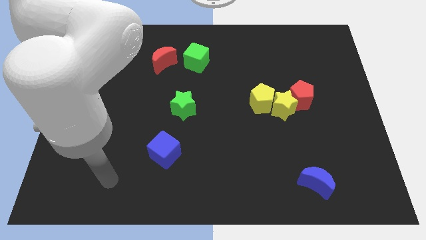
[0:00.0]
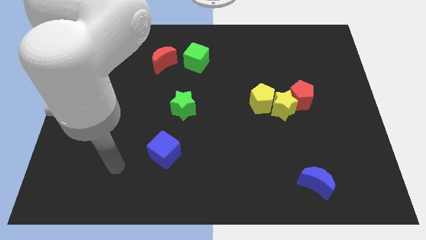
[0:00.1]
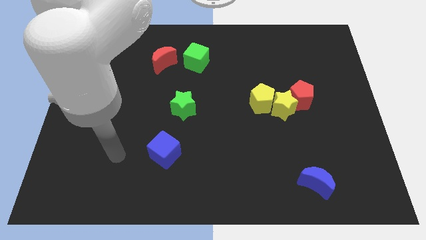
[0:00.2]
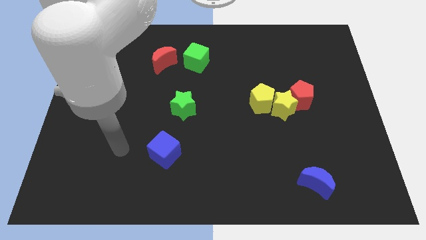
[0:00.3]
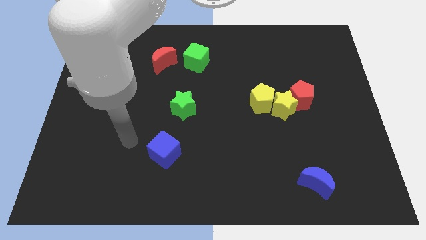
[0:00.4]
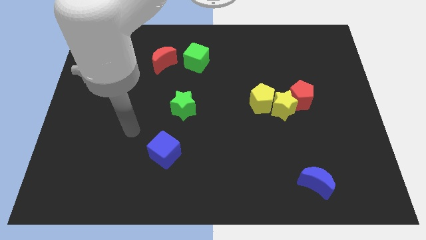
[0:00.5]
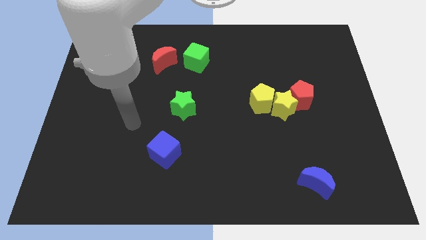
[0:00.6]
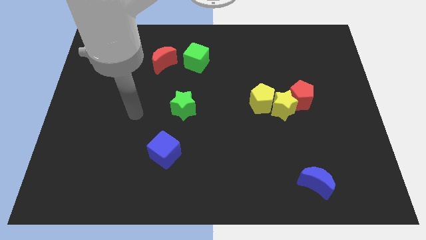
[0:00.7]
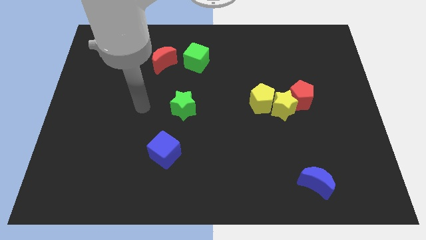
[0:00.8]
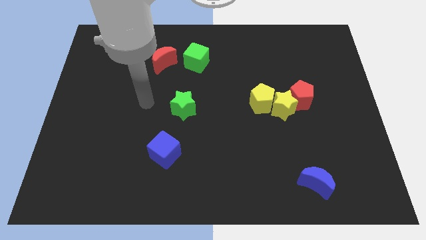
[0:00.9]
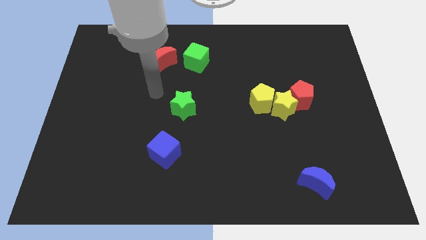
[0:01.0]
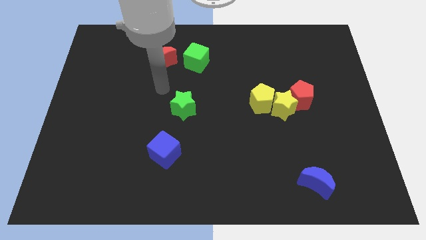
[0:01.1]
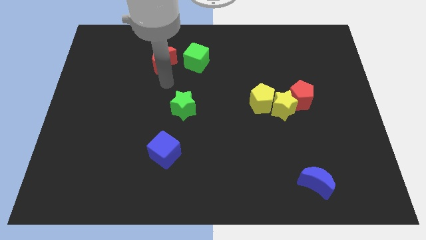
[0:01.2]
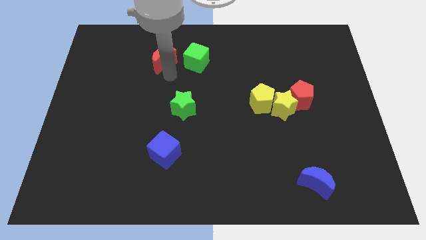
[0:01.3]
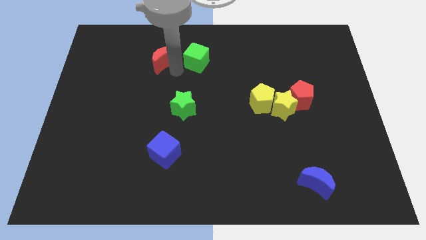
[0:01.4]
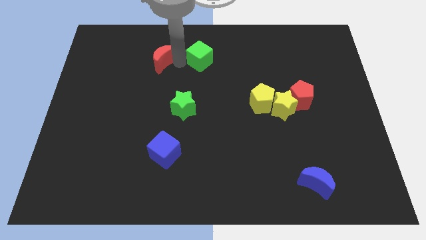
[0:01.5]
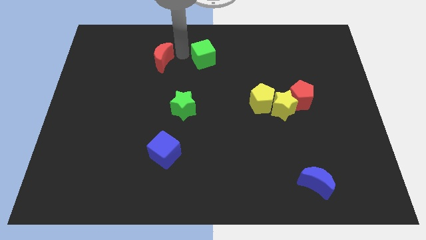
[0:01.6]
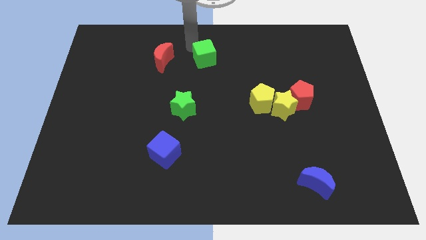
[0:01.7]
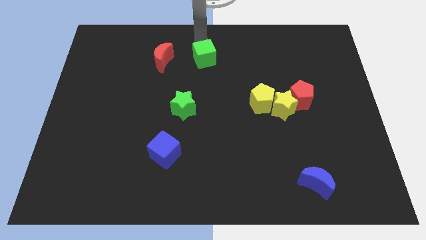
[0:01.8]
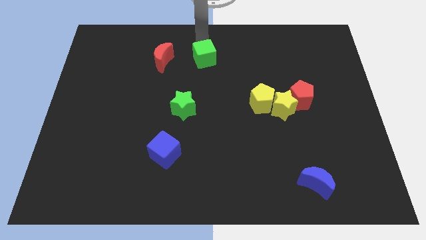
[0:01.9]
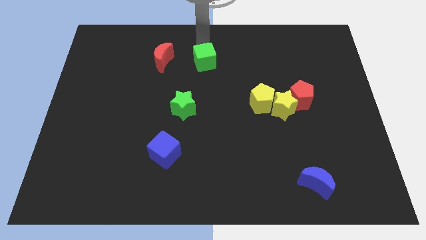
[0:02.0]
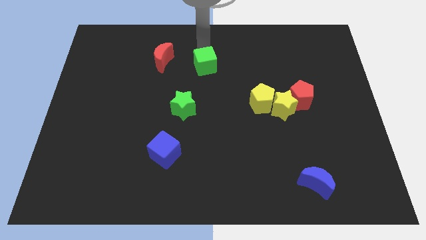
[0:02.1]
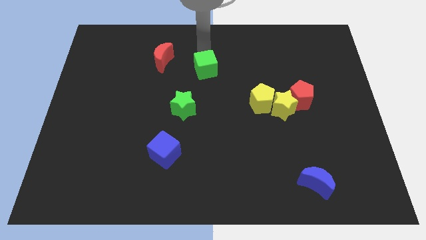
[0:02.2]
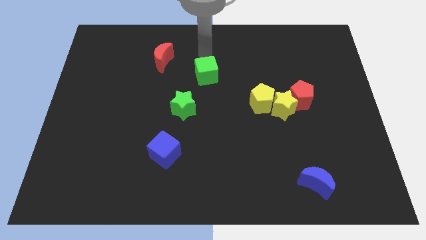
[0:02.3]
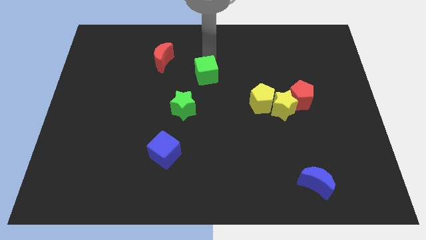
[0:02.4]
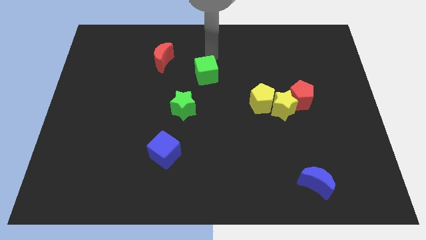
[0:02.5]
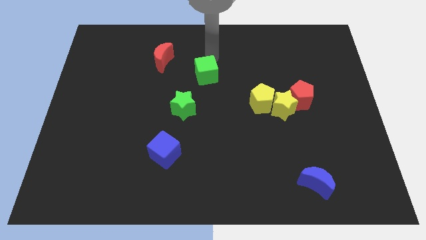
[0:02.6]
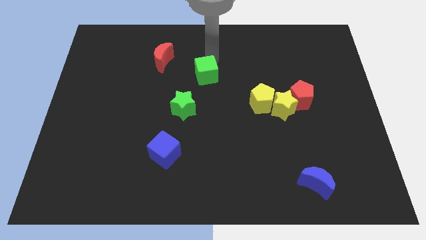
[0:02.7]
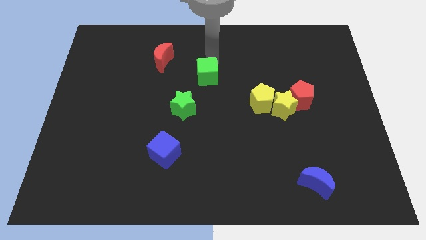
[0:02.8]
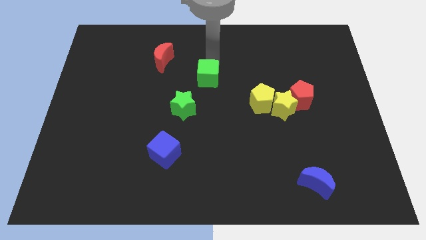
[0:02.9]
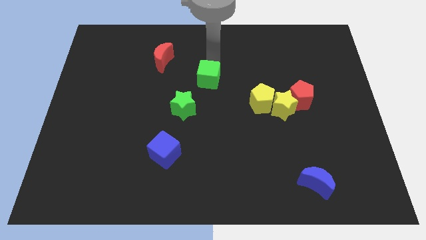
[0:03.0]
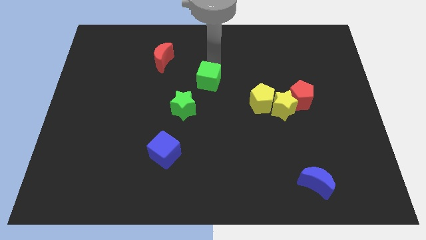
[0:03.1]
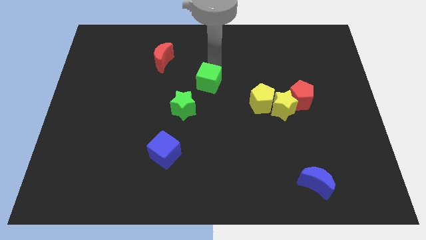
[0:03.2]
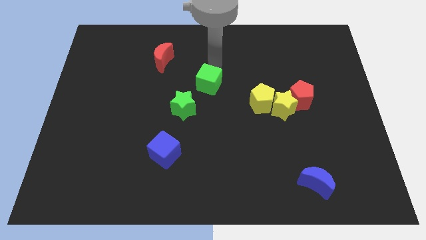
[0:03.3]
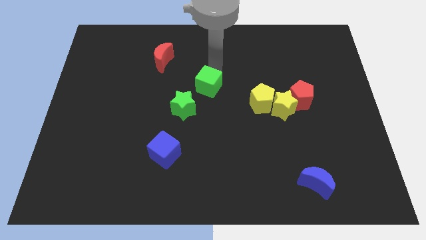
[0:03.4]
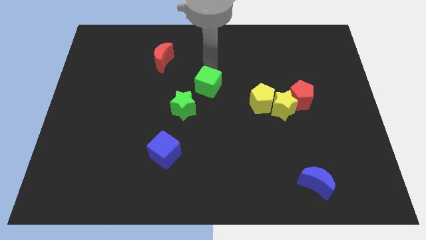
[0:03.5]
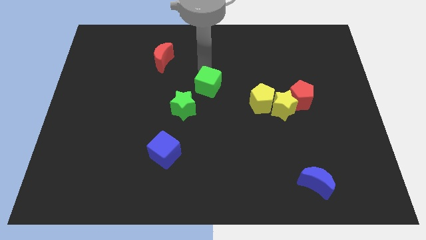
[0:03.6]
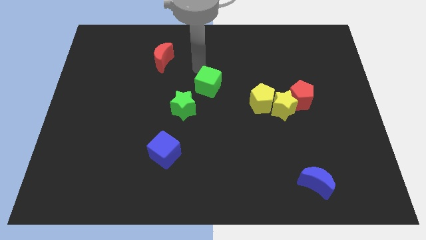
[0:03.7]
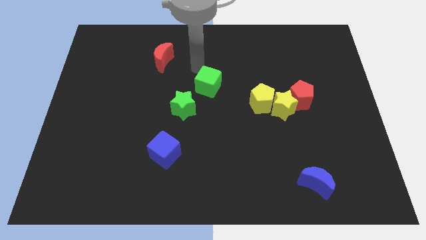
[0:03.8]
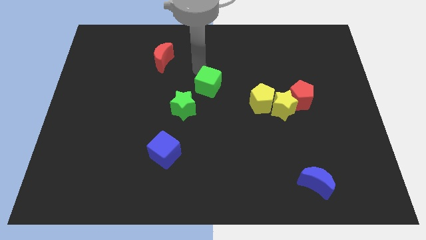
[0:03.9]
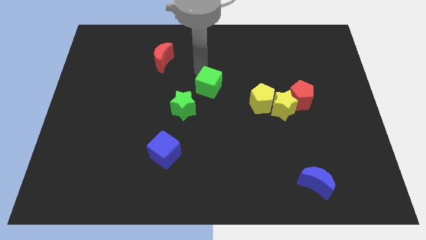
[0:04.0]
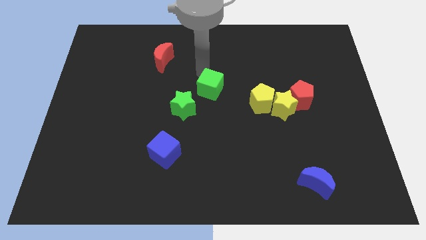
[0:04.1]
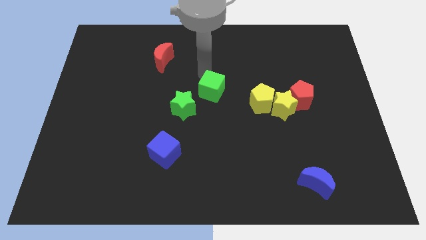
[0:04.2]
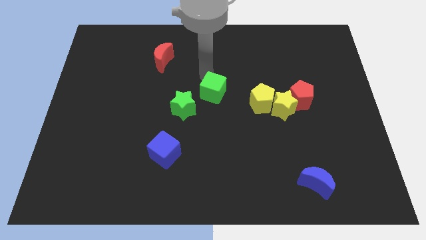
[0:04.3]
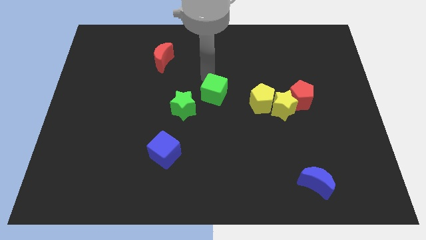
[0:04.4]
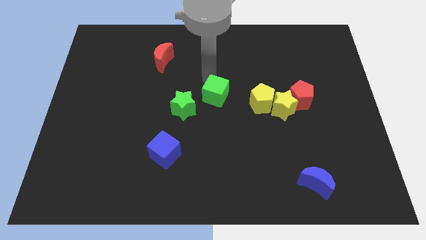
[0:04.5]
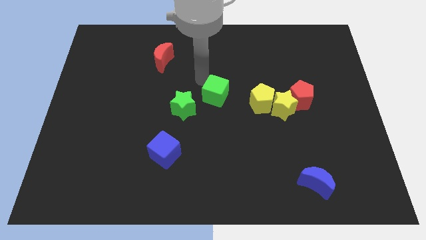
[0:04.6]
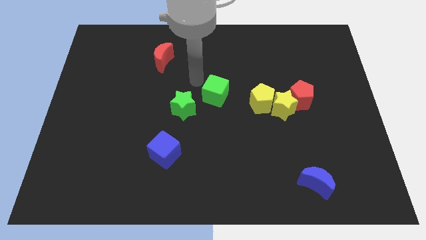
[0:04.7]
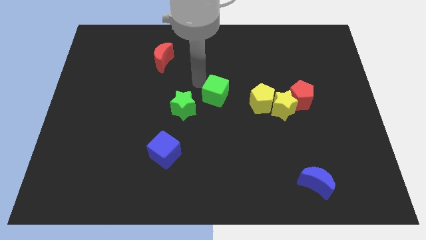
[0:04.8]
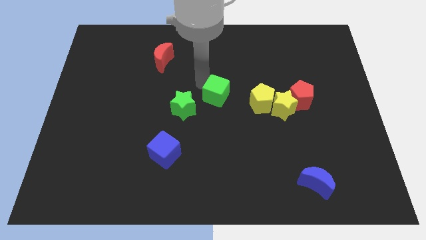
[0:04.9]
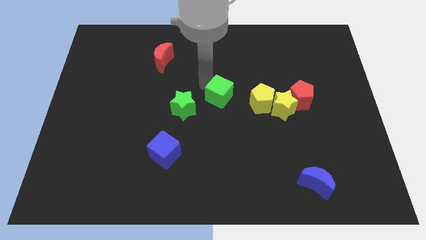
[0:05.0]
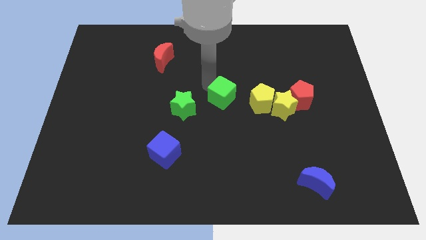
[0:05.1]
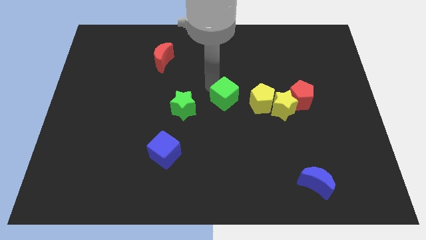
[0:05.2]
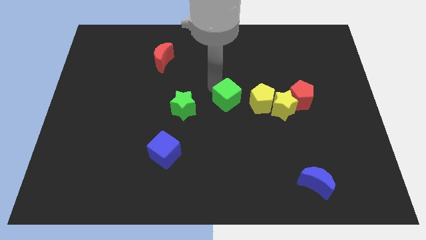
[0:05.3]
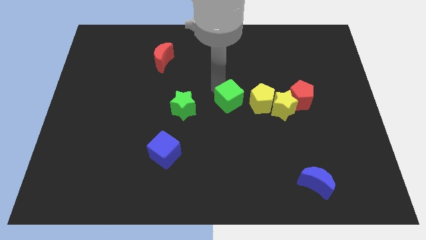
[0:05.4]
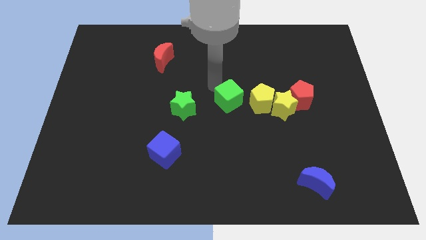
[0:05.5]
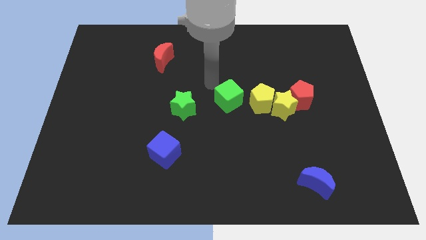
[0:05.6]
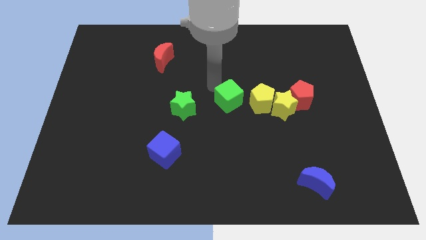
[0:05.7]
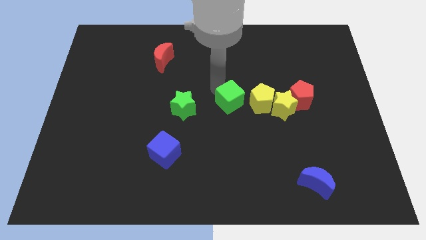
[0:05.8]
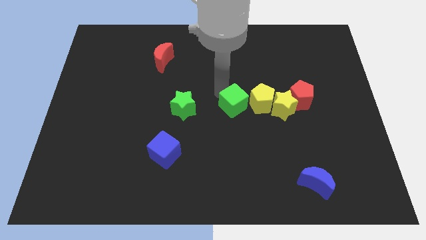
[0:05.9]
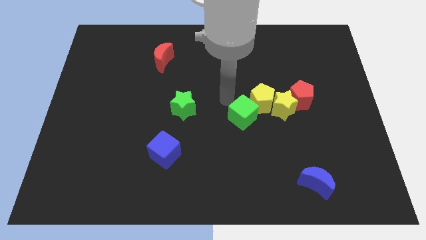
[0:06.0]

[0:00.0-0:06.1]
move the green cube down and right diagonally

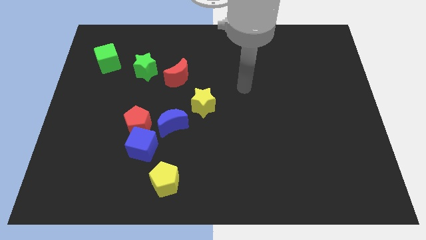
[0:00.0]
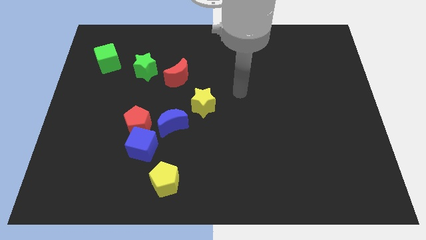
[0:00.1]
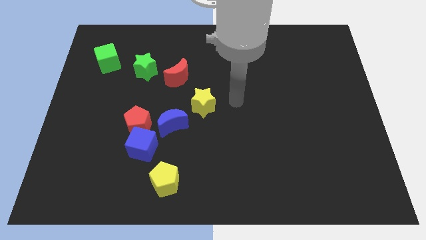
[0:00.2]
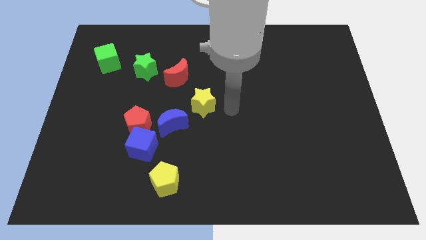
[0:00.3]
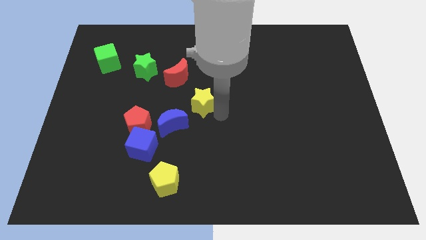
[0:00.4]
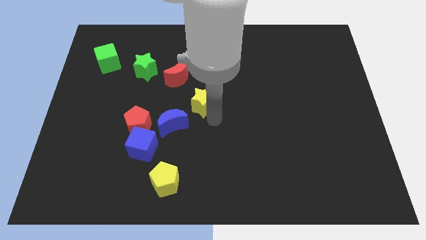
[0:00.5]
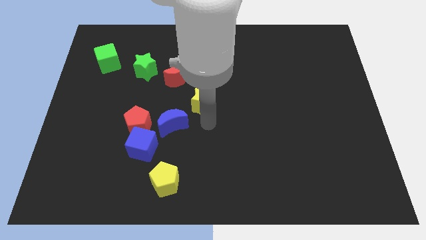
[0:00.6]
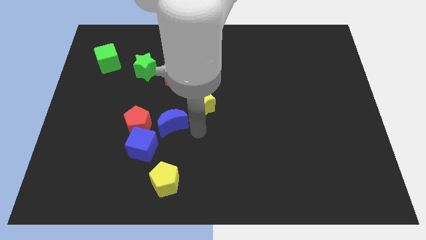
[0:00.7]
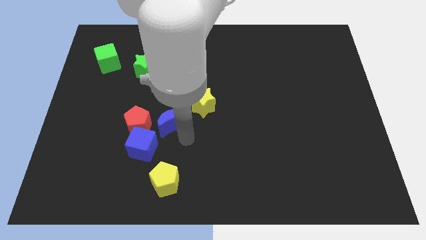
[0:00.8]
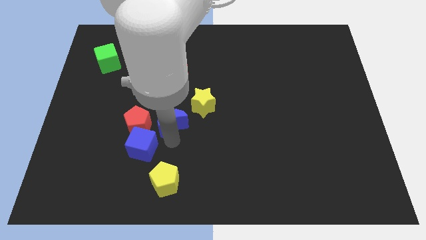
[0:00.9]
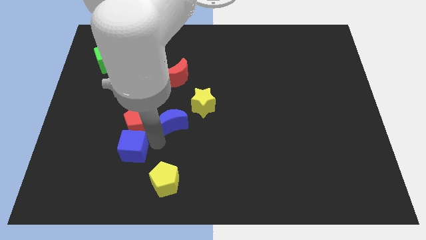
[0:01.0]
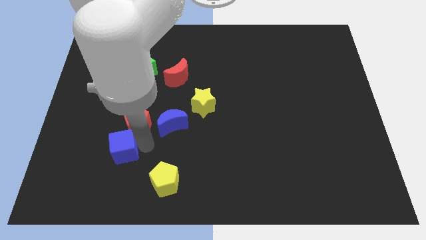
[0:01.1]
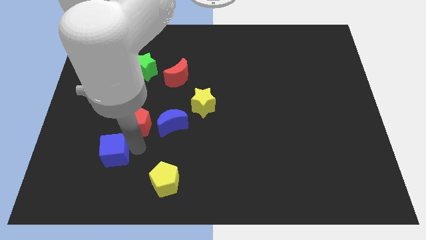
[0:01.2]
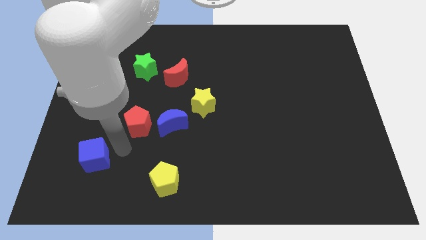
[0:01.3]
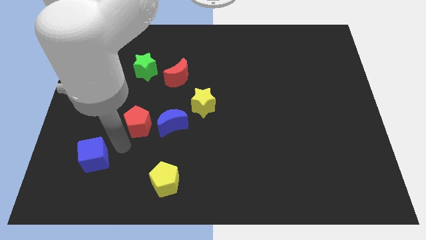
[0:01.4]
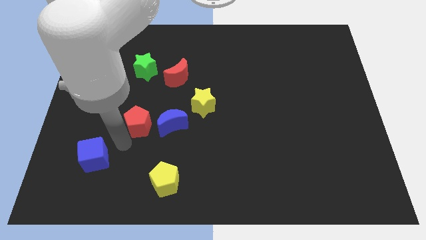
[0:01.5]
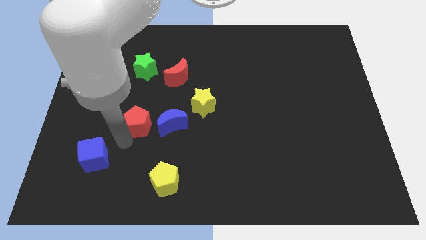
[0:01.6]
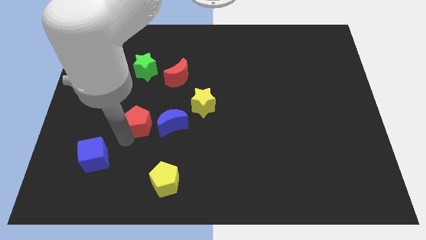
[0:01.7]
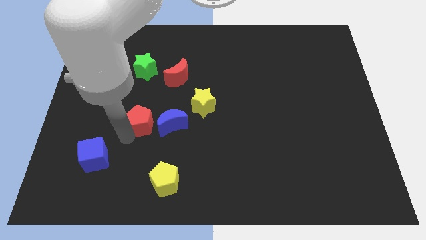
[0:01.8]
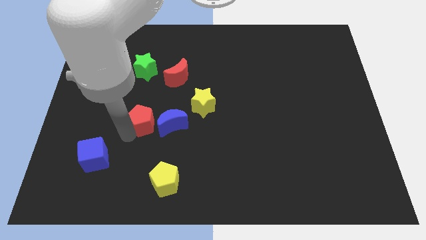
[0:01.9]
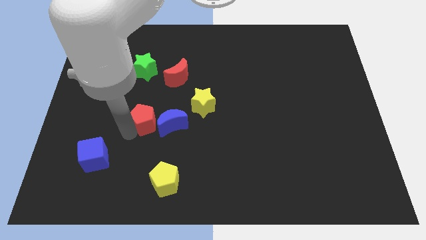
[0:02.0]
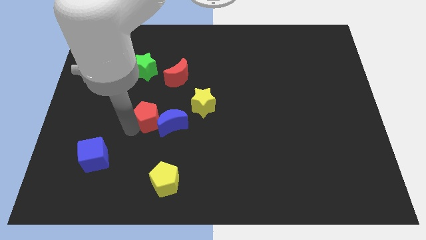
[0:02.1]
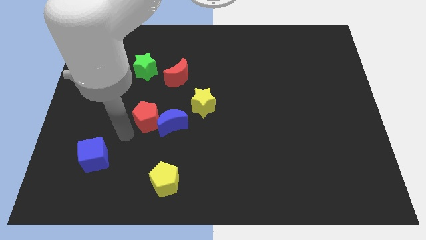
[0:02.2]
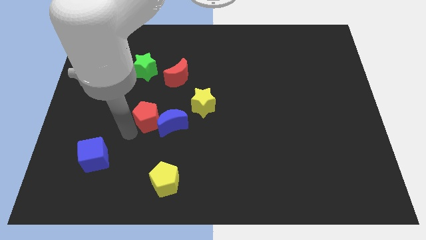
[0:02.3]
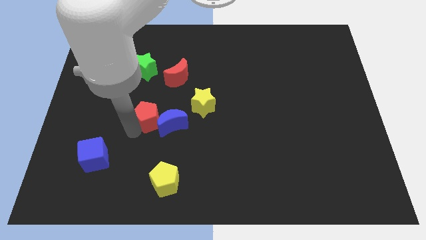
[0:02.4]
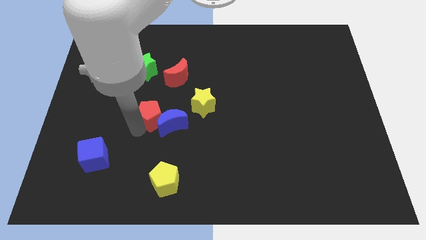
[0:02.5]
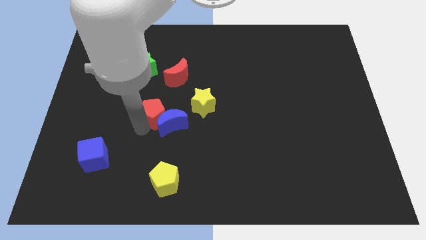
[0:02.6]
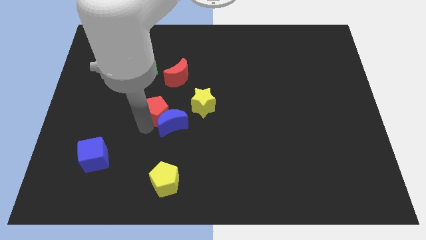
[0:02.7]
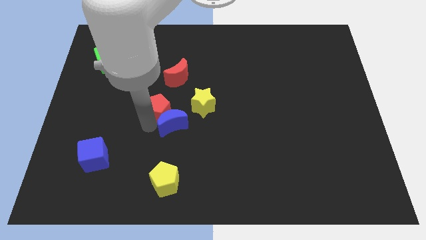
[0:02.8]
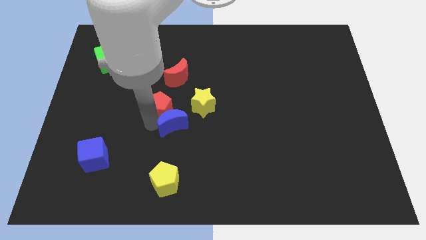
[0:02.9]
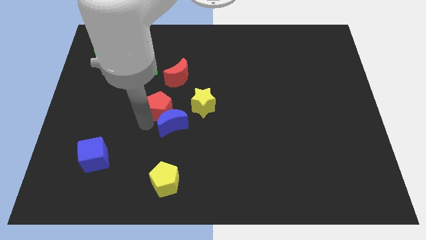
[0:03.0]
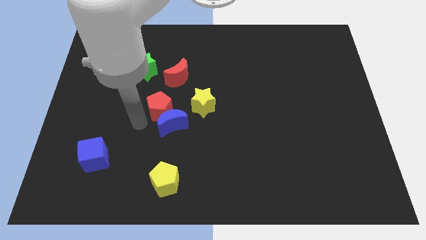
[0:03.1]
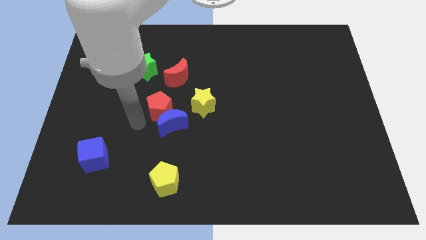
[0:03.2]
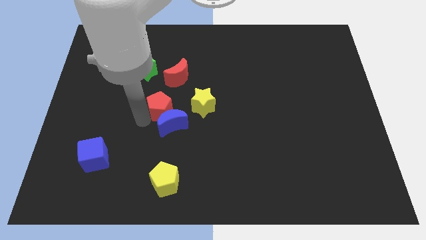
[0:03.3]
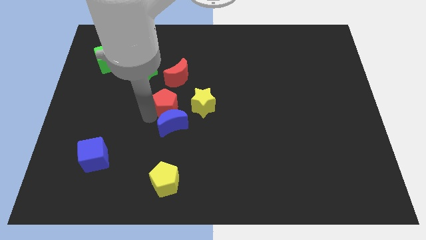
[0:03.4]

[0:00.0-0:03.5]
slightly move the red pentagon diagonally upwards and right
